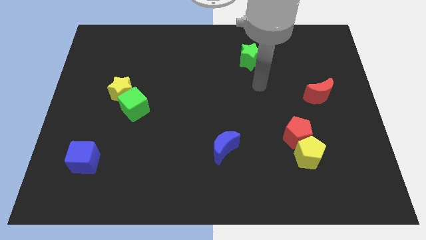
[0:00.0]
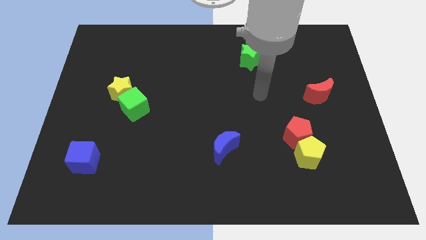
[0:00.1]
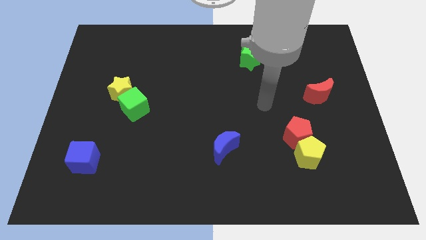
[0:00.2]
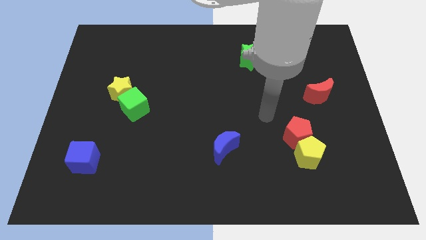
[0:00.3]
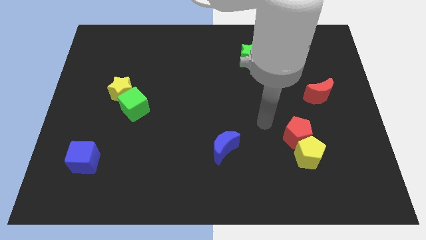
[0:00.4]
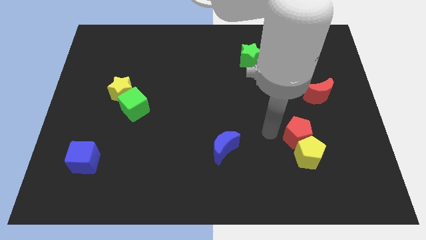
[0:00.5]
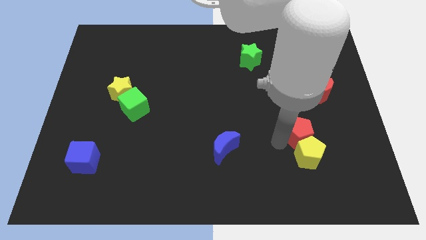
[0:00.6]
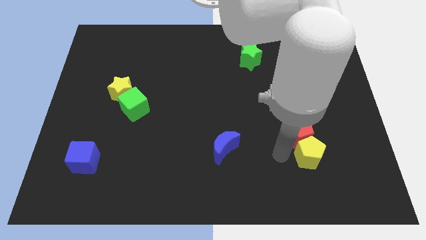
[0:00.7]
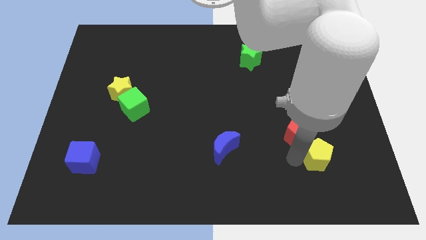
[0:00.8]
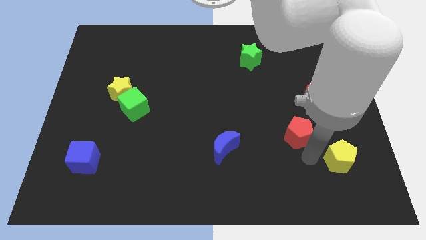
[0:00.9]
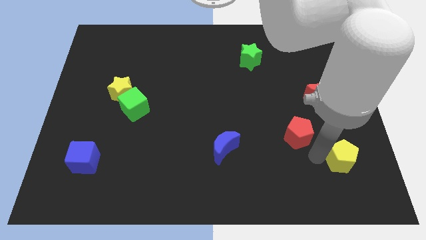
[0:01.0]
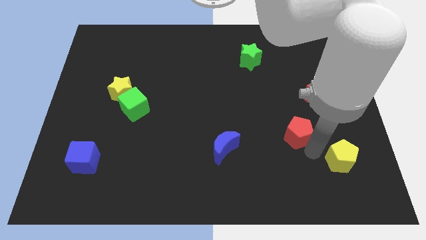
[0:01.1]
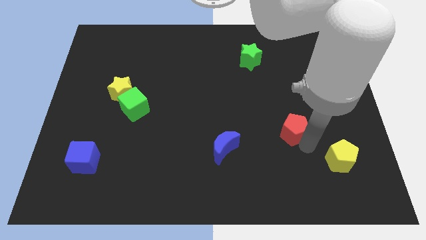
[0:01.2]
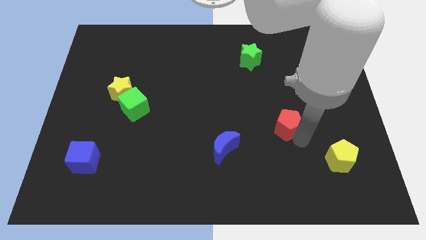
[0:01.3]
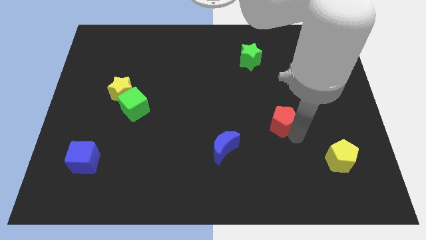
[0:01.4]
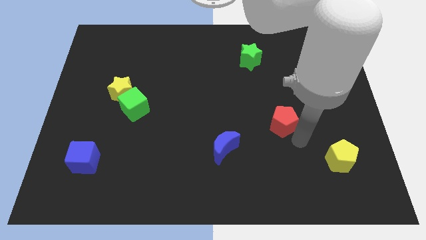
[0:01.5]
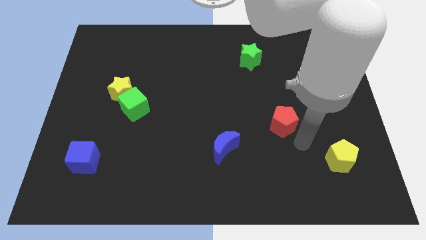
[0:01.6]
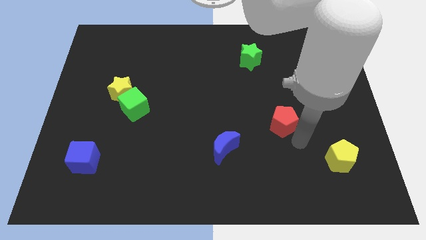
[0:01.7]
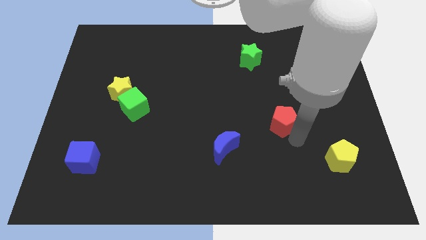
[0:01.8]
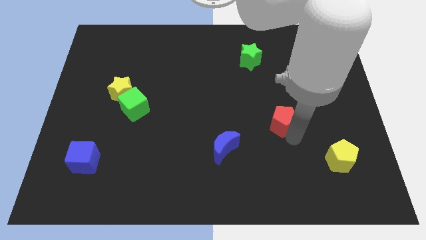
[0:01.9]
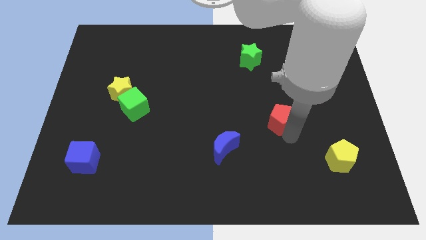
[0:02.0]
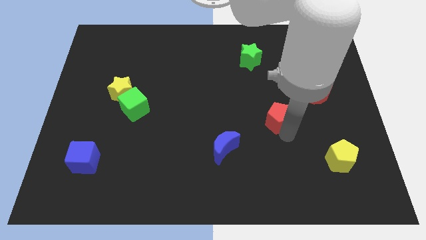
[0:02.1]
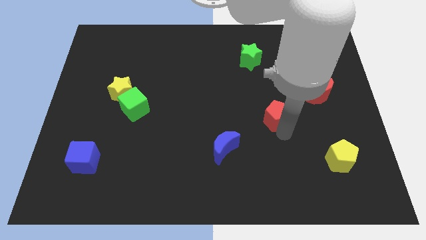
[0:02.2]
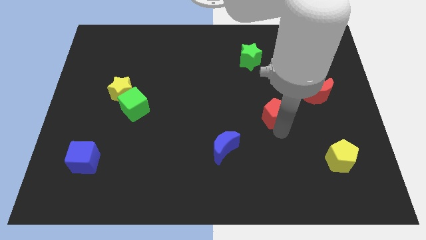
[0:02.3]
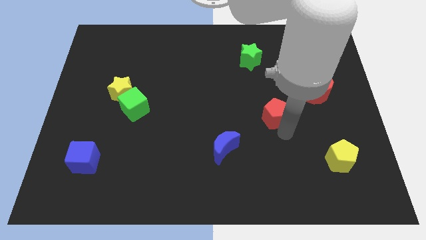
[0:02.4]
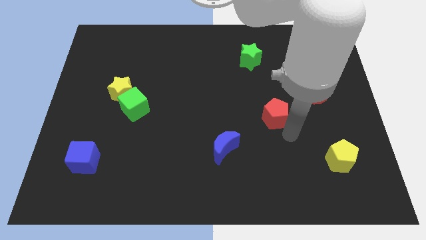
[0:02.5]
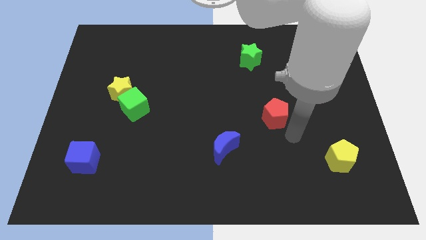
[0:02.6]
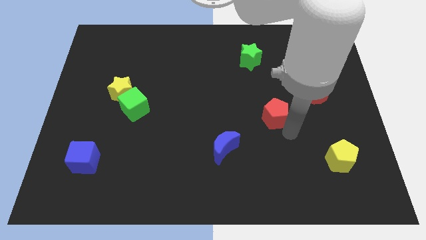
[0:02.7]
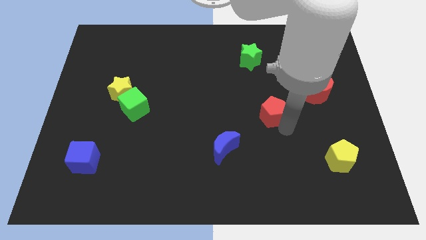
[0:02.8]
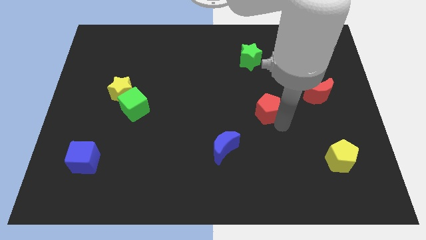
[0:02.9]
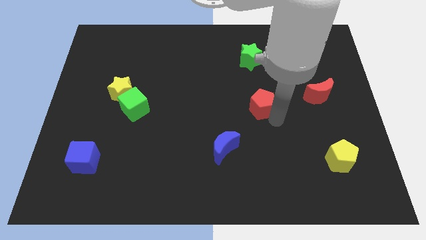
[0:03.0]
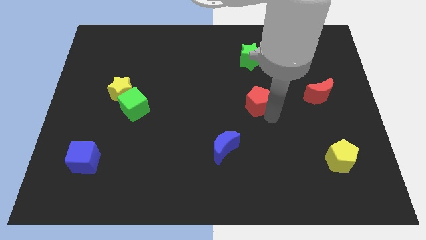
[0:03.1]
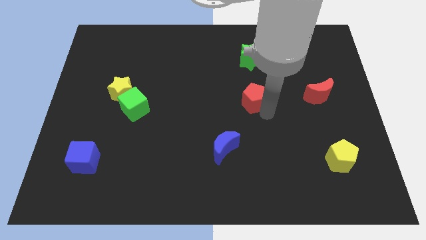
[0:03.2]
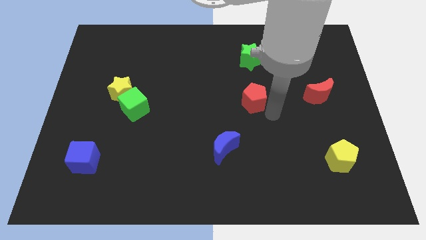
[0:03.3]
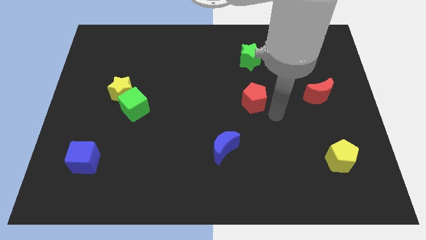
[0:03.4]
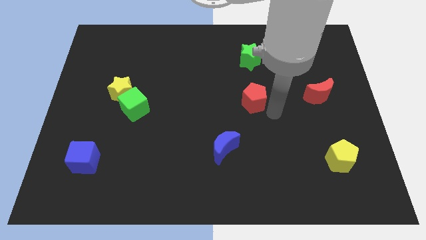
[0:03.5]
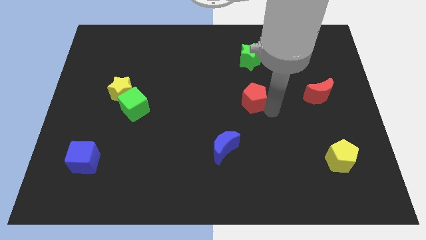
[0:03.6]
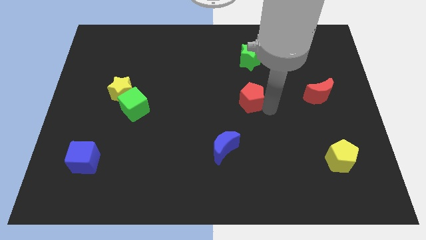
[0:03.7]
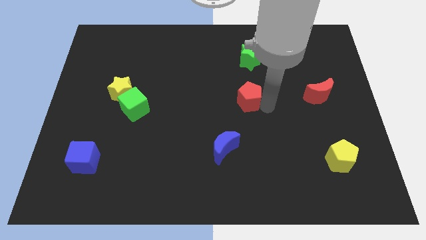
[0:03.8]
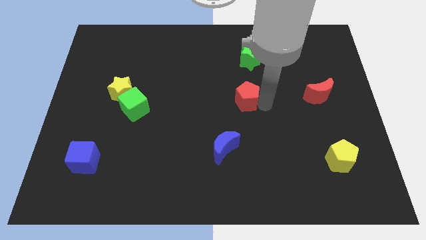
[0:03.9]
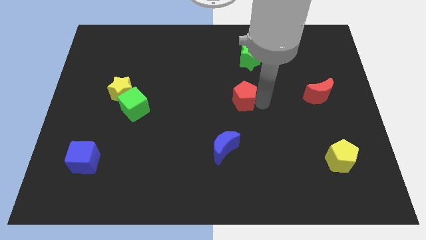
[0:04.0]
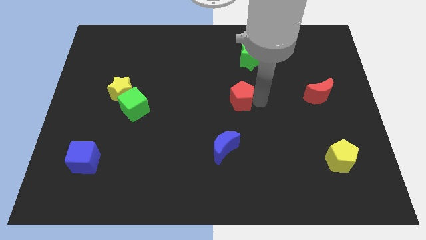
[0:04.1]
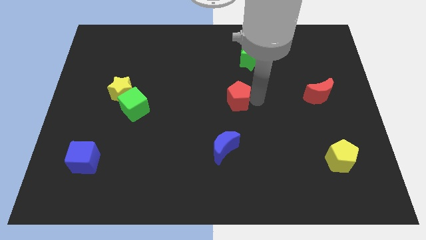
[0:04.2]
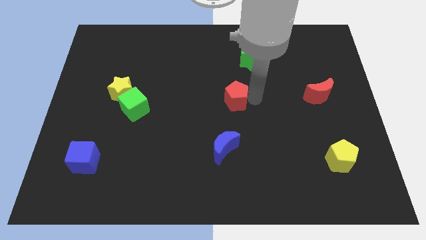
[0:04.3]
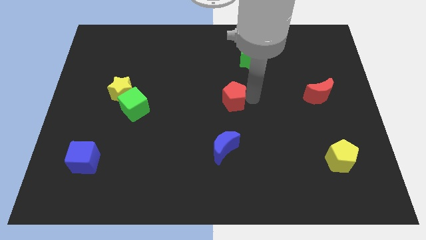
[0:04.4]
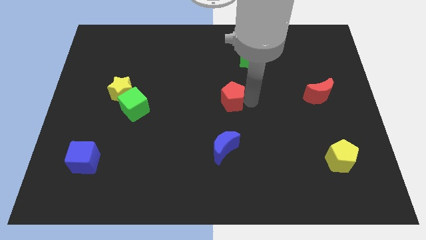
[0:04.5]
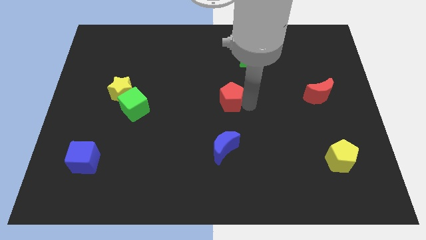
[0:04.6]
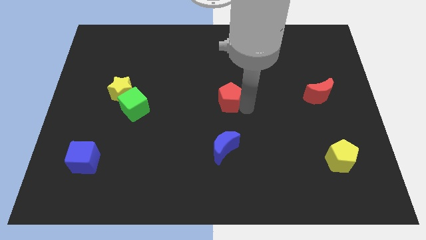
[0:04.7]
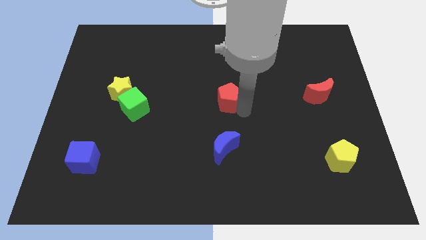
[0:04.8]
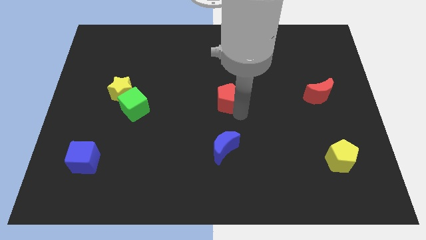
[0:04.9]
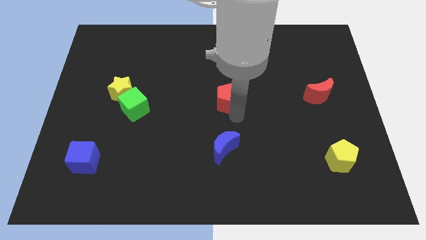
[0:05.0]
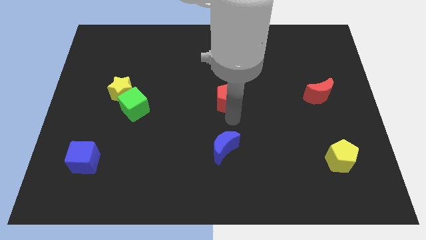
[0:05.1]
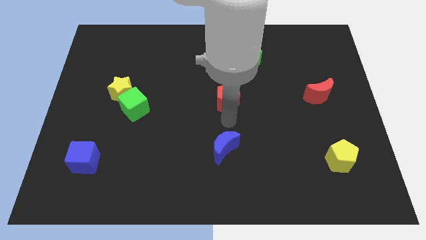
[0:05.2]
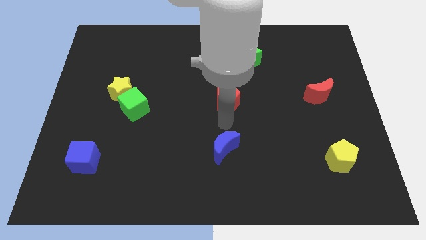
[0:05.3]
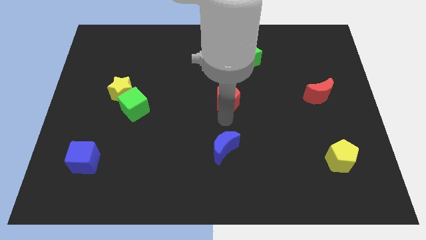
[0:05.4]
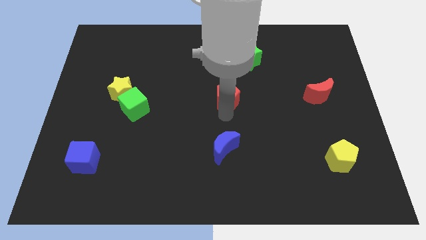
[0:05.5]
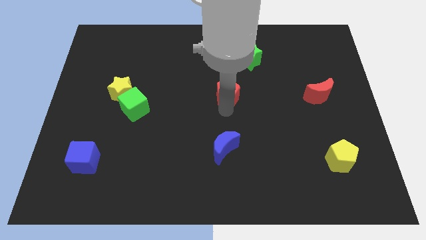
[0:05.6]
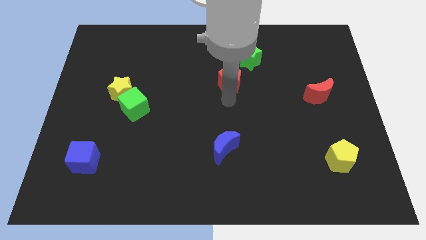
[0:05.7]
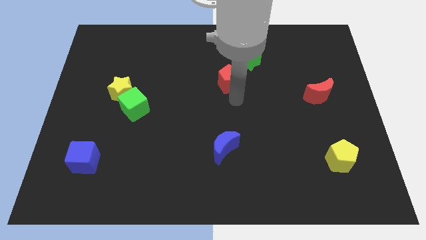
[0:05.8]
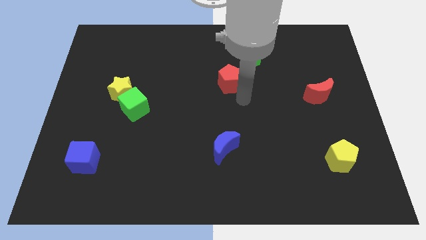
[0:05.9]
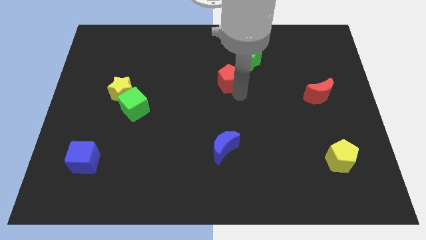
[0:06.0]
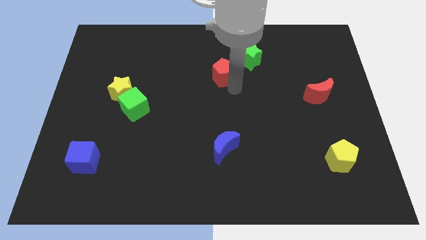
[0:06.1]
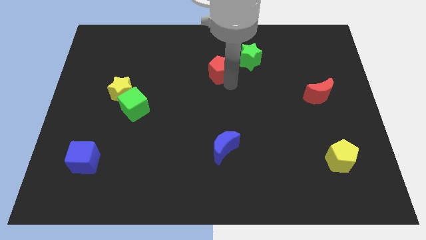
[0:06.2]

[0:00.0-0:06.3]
put the red pentagon left of the green star

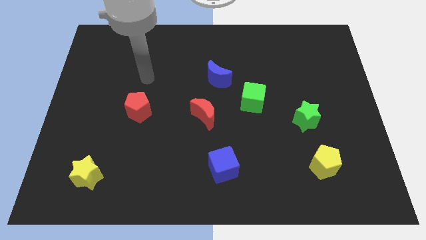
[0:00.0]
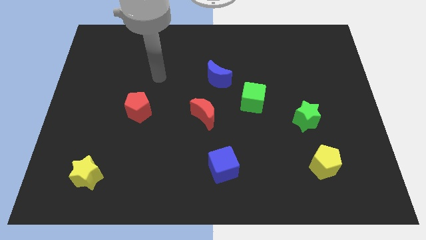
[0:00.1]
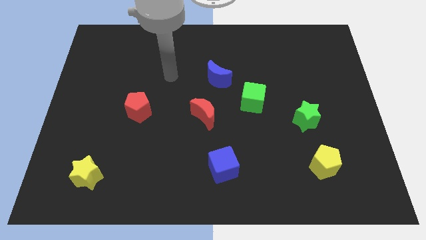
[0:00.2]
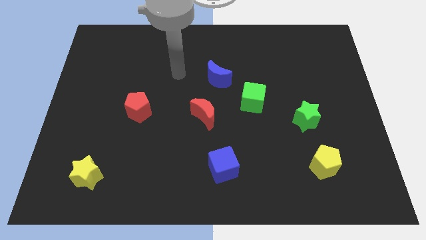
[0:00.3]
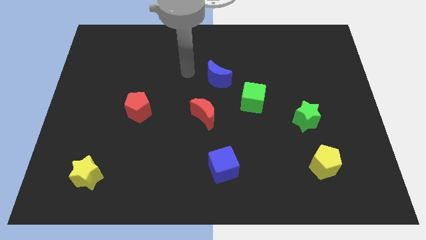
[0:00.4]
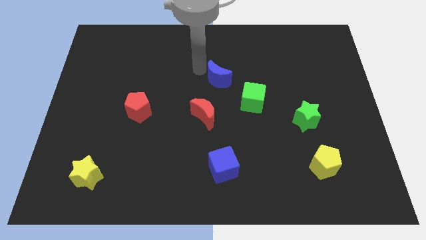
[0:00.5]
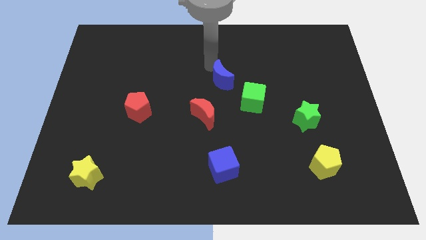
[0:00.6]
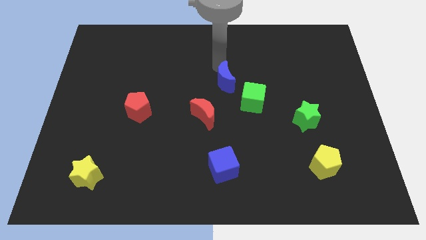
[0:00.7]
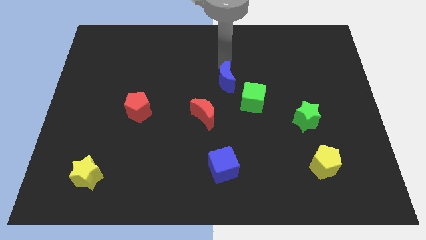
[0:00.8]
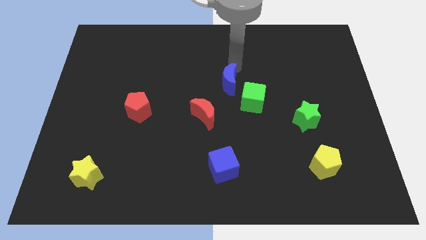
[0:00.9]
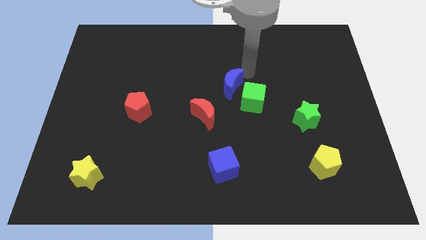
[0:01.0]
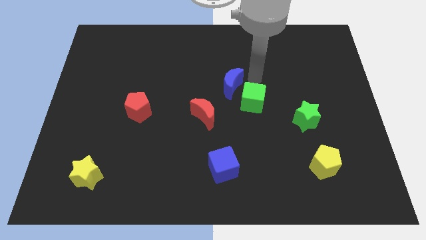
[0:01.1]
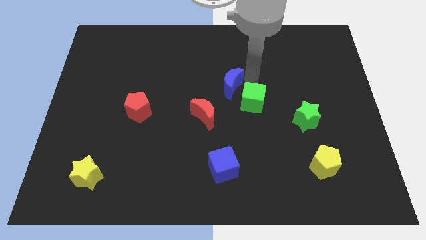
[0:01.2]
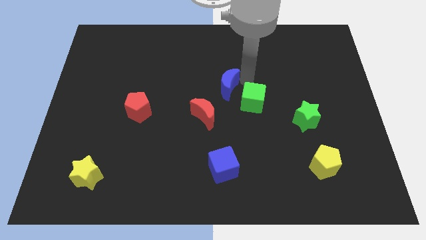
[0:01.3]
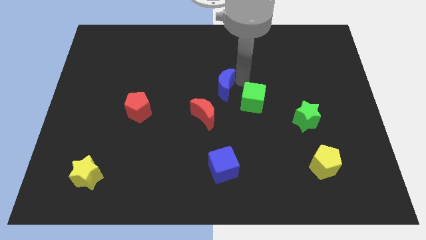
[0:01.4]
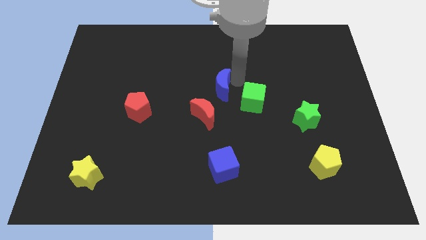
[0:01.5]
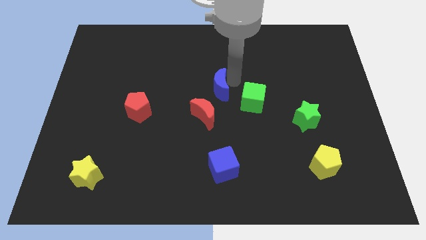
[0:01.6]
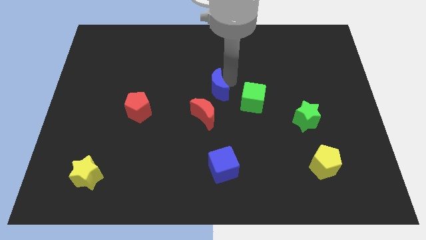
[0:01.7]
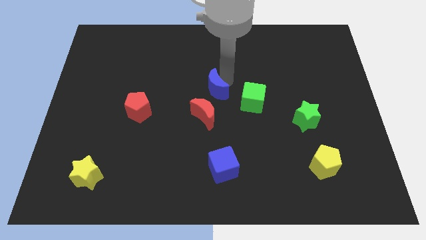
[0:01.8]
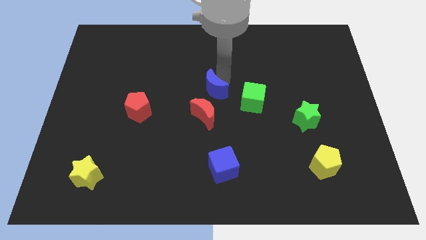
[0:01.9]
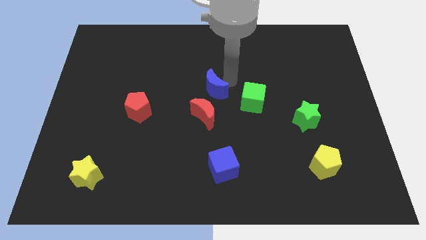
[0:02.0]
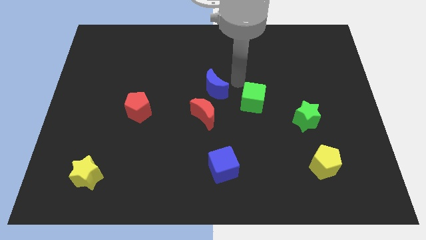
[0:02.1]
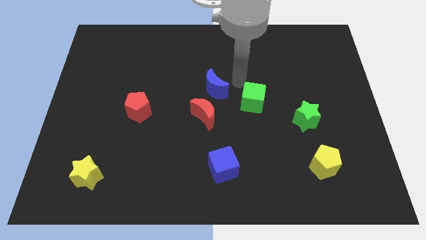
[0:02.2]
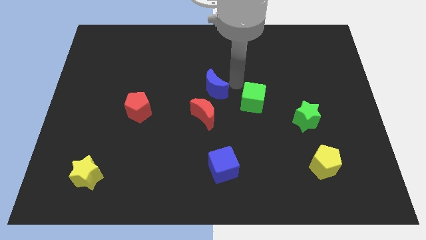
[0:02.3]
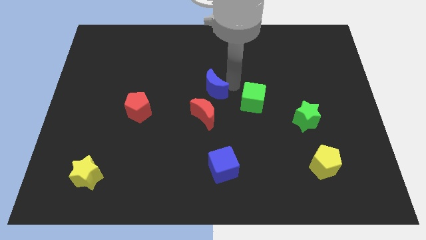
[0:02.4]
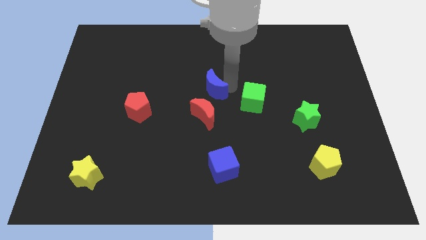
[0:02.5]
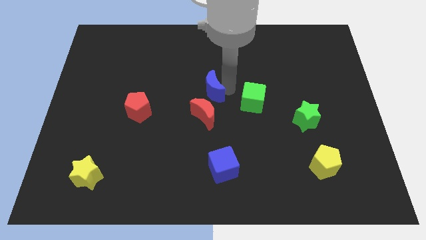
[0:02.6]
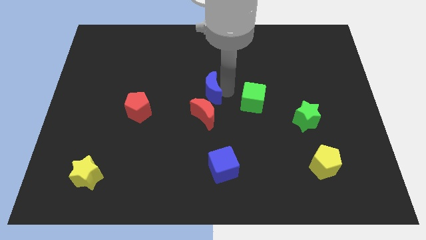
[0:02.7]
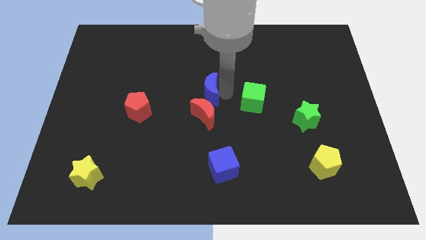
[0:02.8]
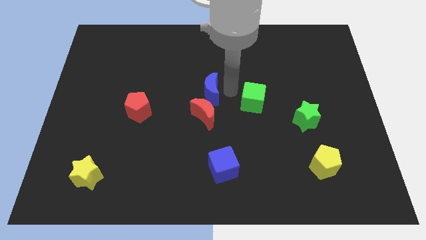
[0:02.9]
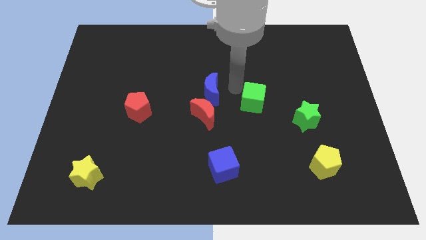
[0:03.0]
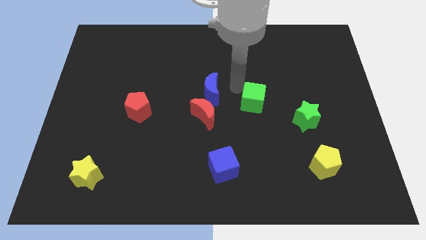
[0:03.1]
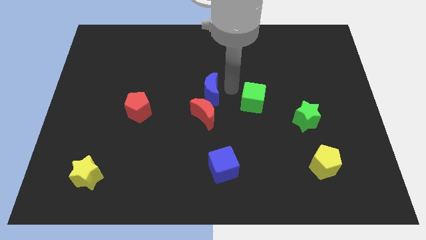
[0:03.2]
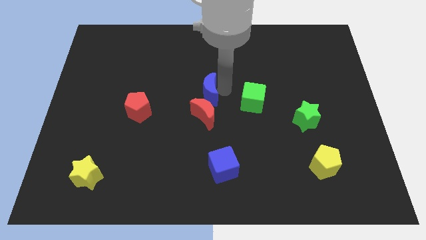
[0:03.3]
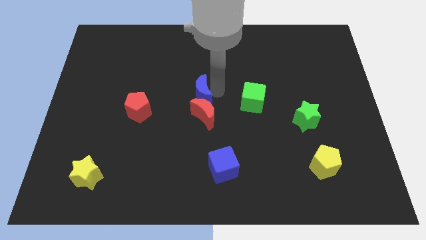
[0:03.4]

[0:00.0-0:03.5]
move the blue moon diagonally up and to the left of the red moon
